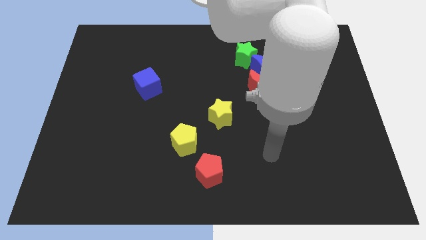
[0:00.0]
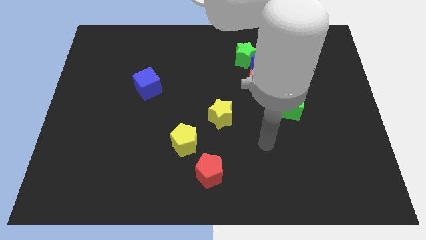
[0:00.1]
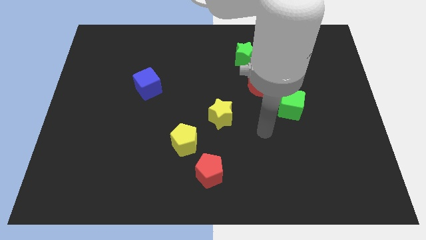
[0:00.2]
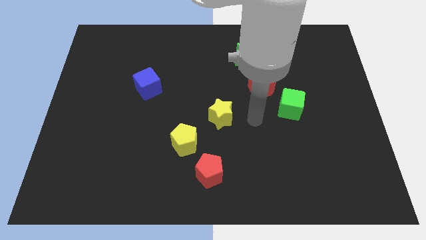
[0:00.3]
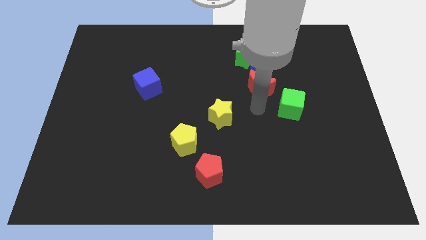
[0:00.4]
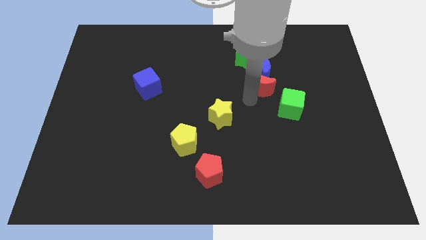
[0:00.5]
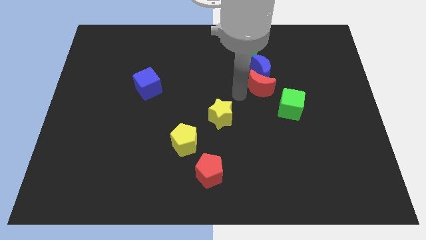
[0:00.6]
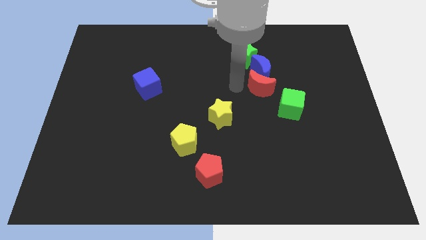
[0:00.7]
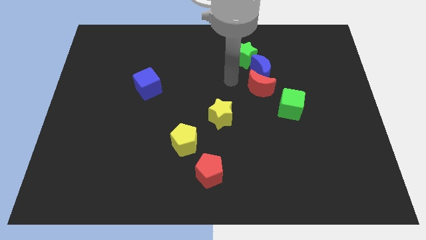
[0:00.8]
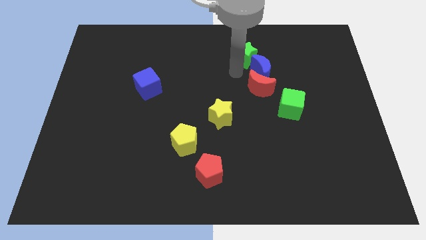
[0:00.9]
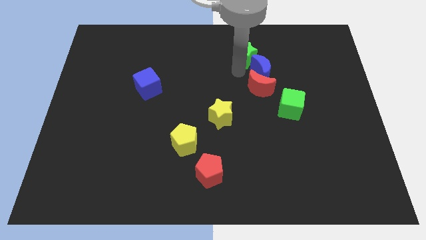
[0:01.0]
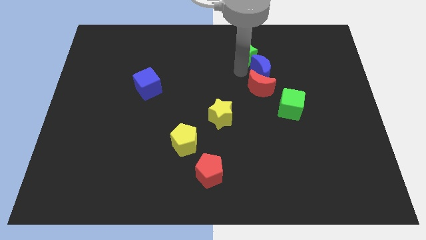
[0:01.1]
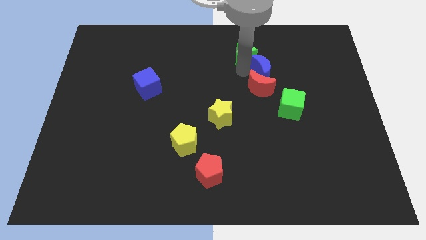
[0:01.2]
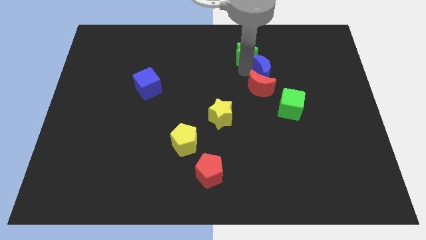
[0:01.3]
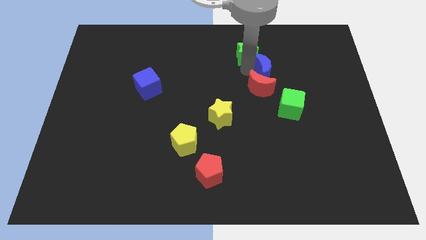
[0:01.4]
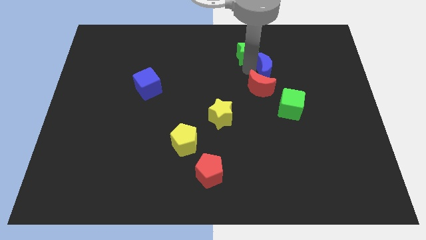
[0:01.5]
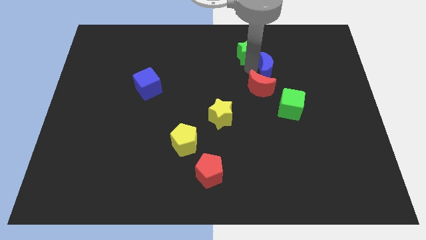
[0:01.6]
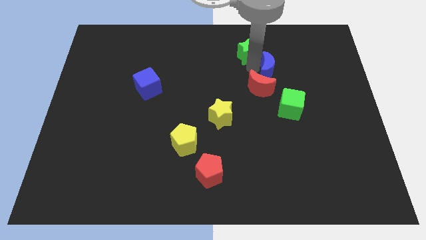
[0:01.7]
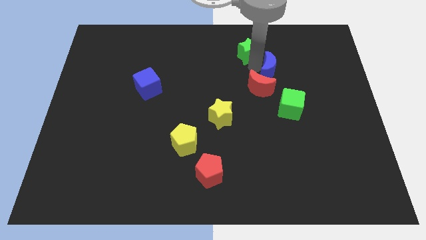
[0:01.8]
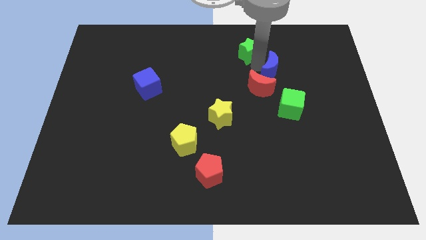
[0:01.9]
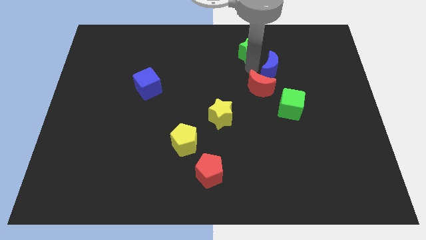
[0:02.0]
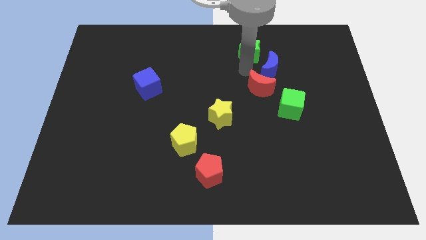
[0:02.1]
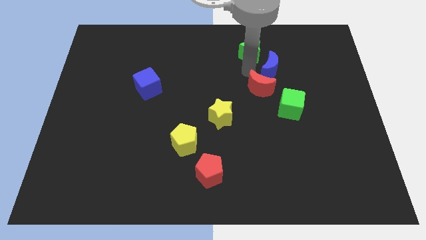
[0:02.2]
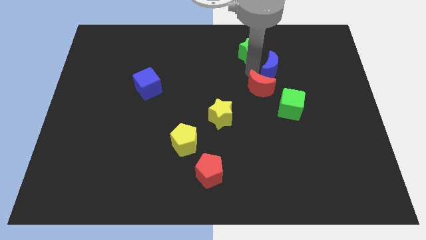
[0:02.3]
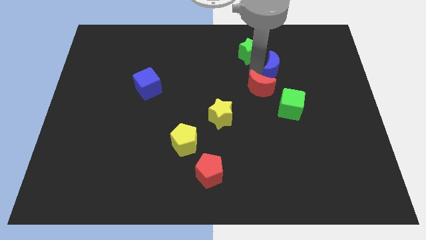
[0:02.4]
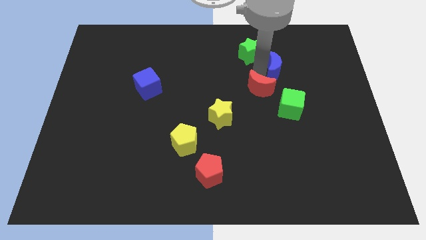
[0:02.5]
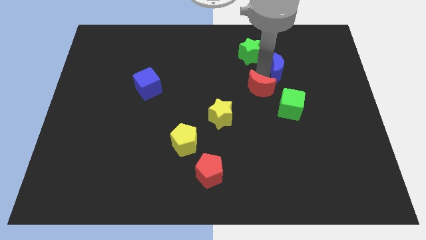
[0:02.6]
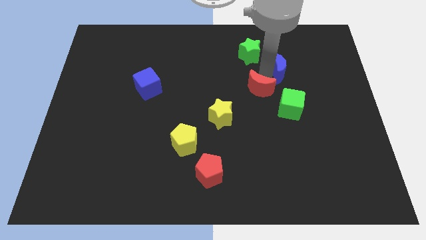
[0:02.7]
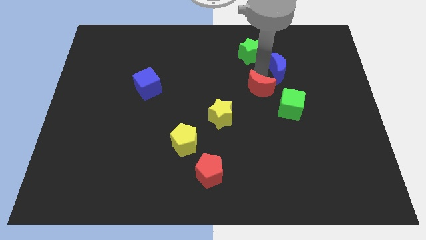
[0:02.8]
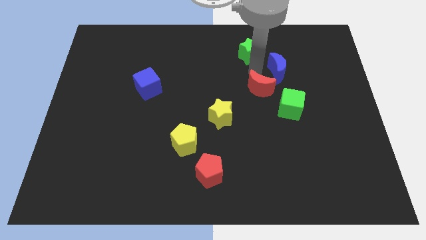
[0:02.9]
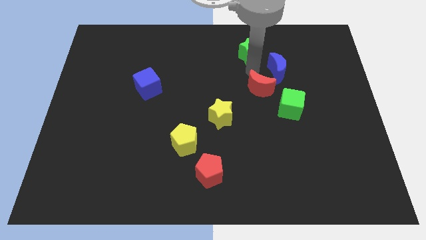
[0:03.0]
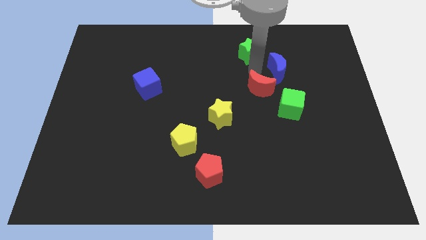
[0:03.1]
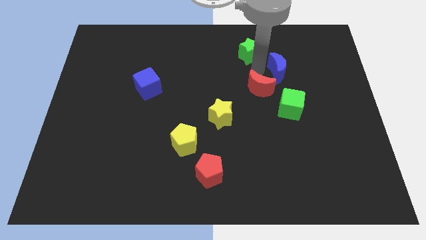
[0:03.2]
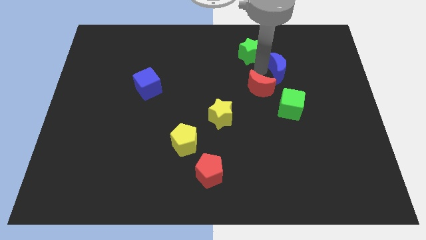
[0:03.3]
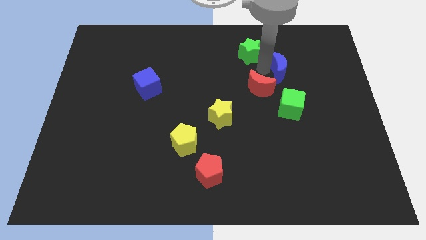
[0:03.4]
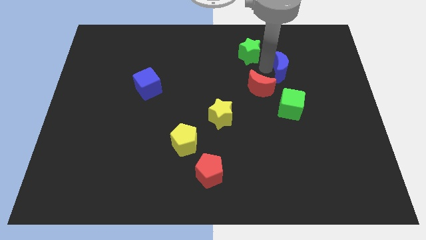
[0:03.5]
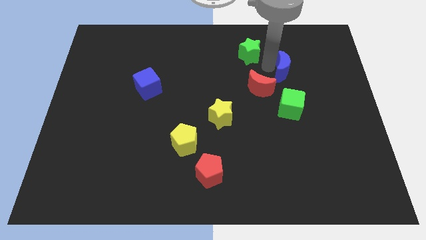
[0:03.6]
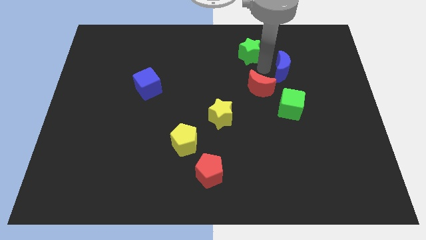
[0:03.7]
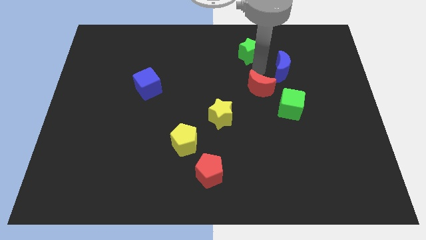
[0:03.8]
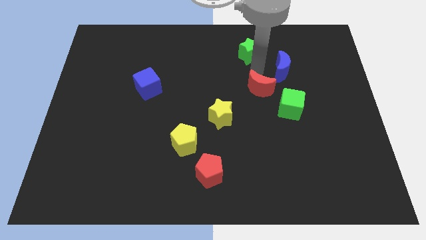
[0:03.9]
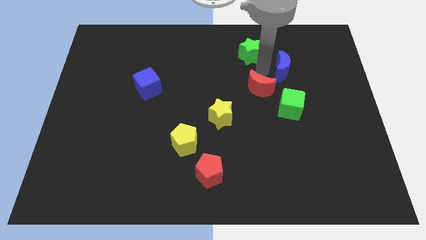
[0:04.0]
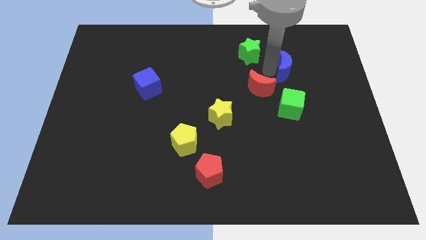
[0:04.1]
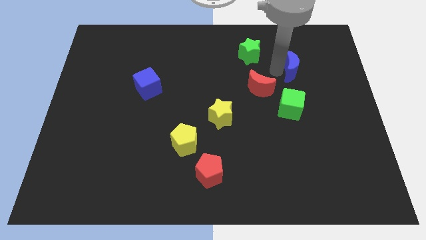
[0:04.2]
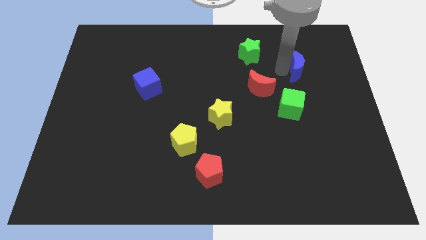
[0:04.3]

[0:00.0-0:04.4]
move the blue moon away from the red moon and green star

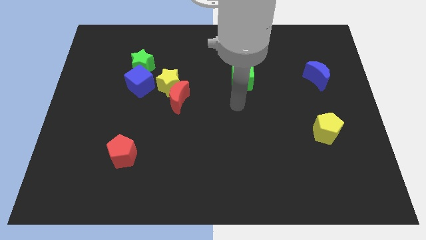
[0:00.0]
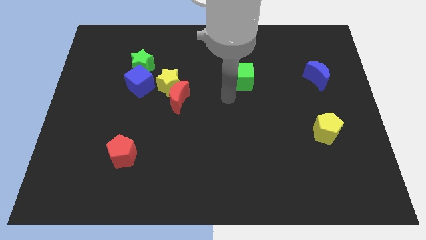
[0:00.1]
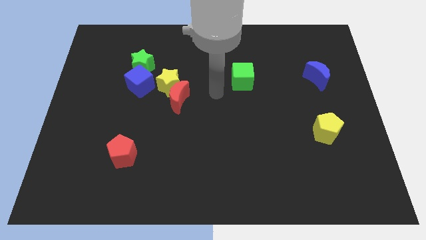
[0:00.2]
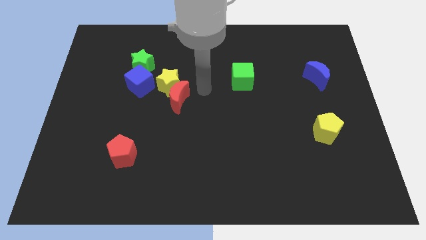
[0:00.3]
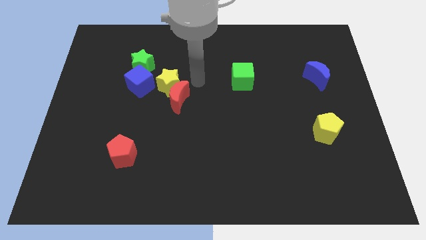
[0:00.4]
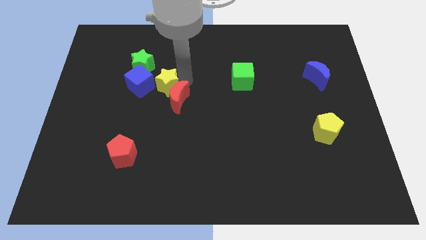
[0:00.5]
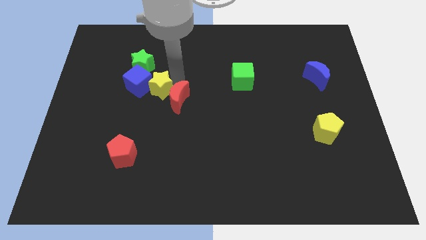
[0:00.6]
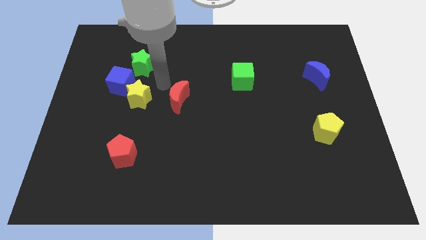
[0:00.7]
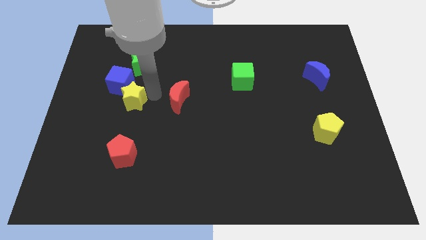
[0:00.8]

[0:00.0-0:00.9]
separate the red moon from the yellow star

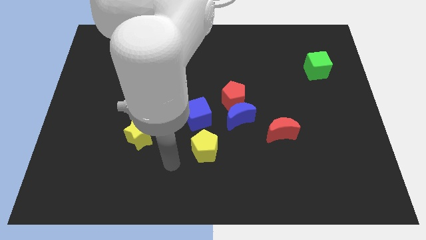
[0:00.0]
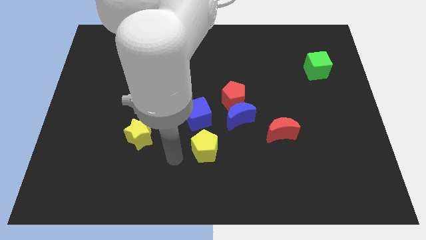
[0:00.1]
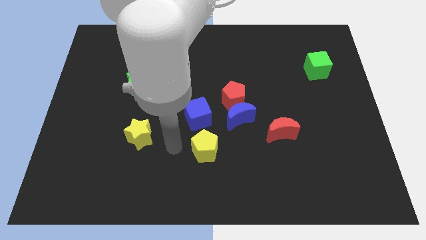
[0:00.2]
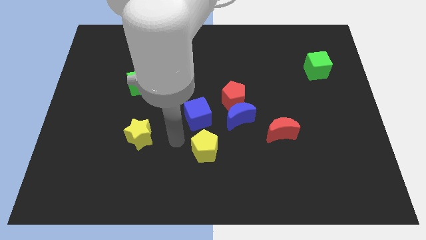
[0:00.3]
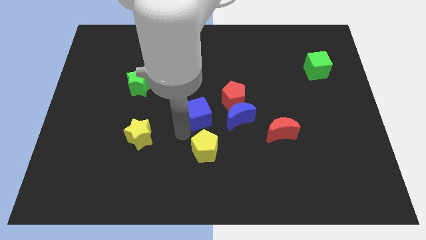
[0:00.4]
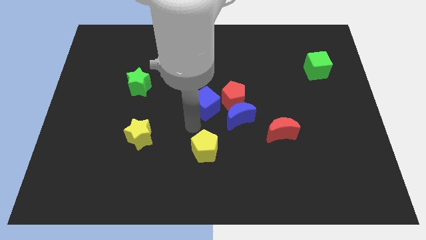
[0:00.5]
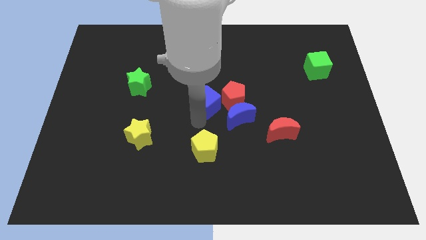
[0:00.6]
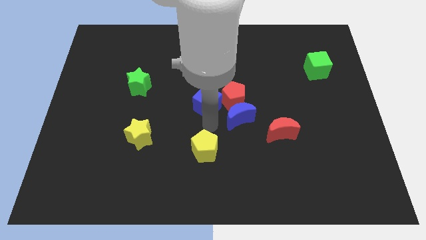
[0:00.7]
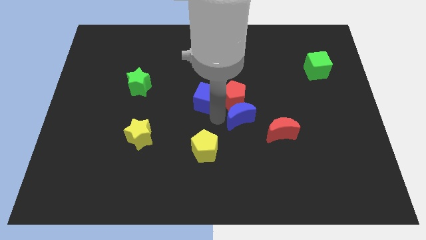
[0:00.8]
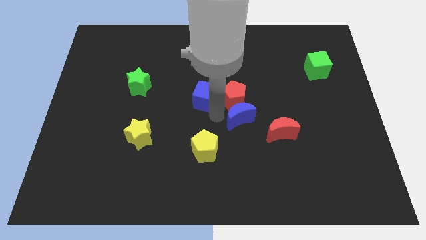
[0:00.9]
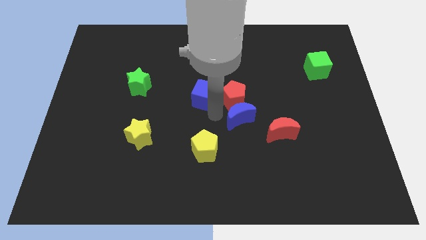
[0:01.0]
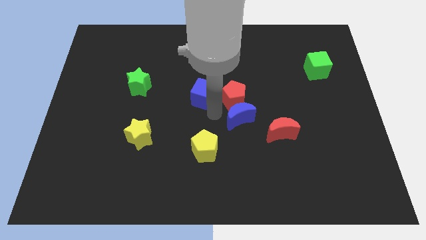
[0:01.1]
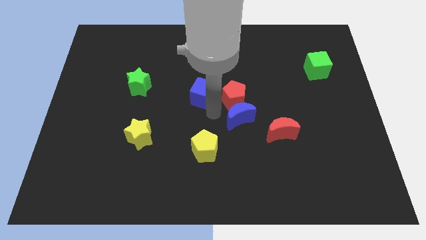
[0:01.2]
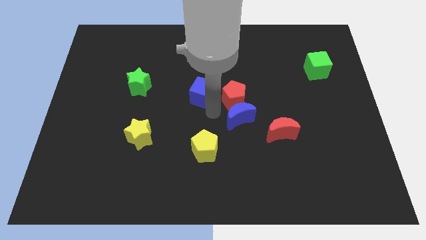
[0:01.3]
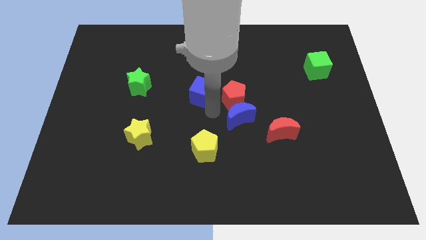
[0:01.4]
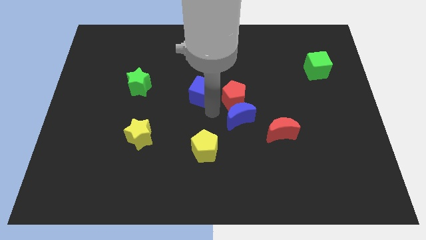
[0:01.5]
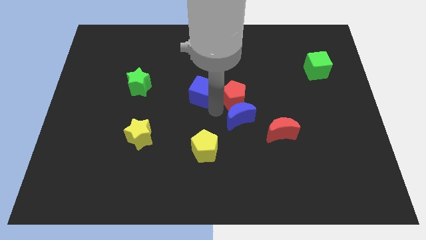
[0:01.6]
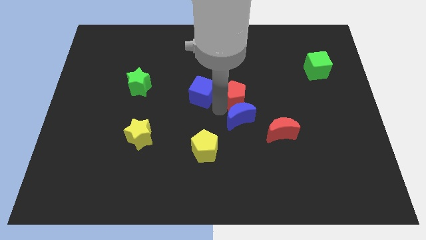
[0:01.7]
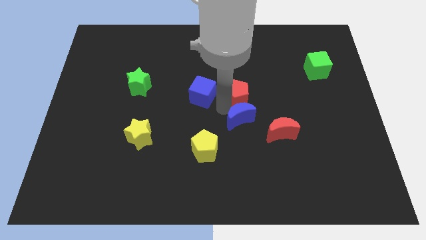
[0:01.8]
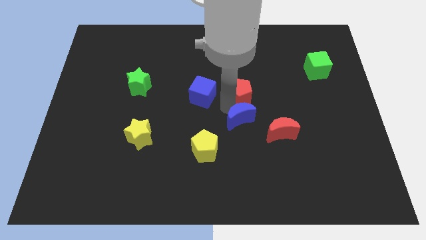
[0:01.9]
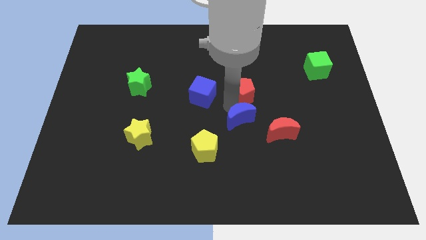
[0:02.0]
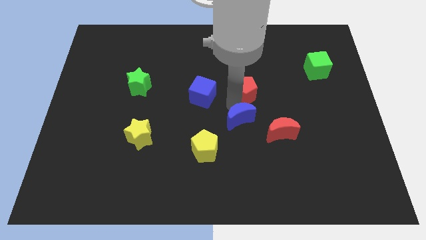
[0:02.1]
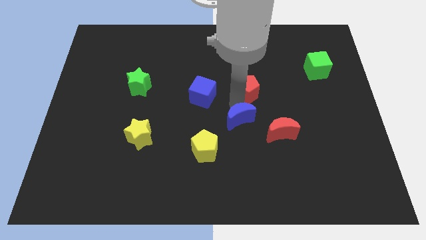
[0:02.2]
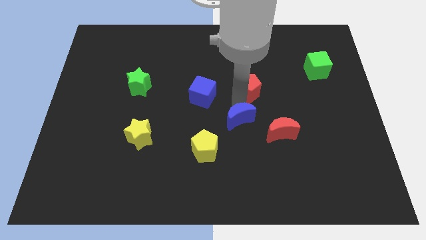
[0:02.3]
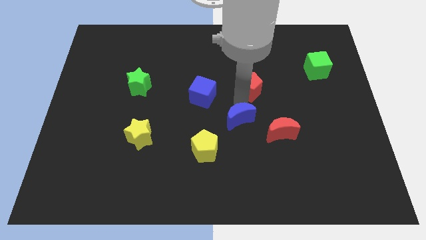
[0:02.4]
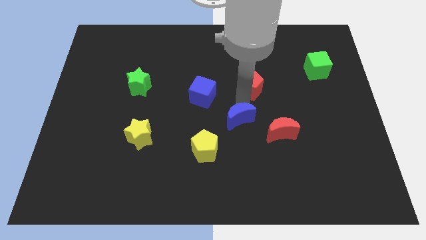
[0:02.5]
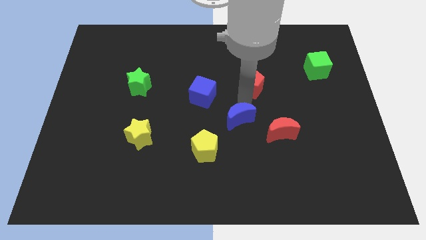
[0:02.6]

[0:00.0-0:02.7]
move the red pentagon away from the blue moon and blue cube

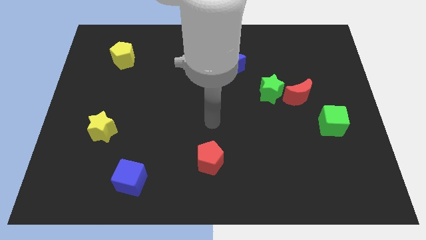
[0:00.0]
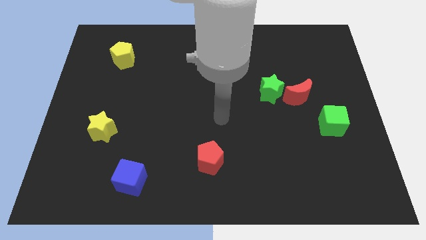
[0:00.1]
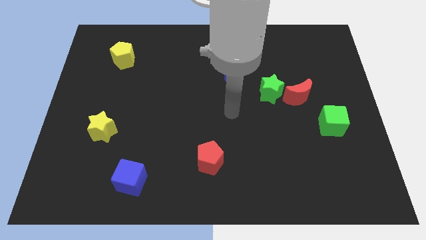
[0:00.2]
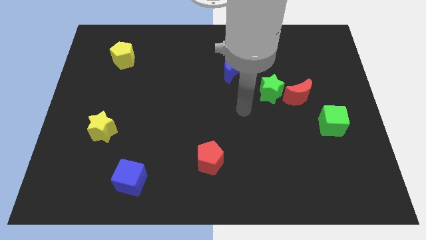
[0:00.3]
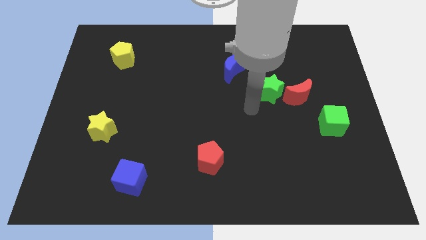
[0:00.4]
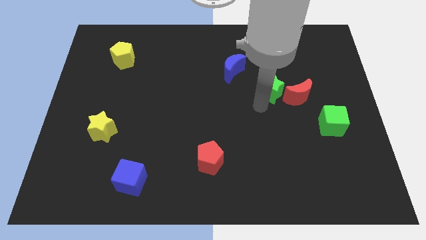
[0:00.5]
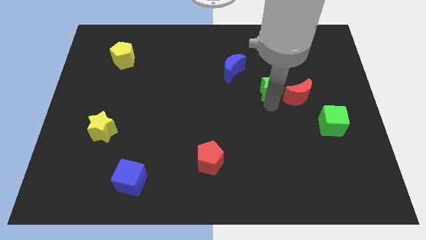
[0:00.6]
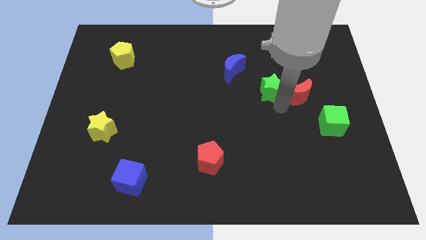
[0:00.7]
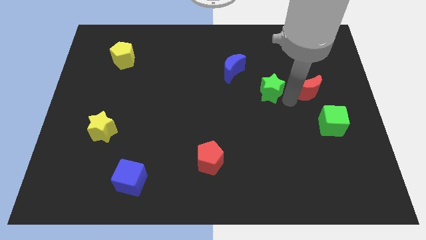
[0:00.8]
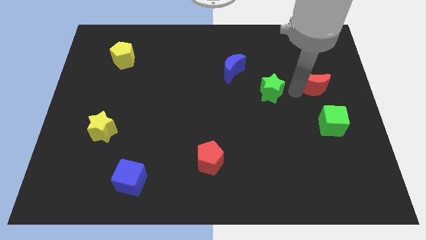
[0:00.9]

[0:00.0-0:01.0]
separate the green star from the red moon

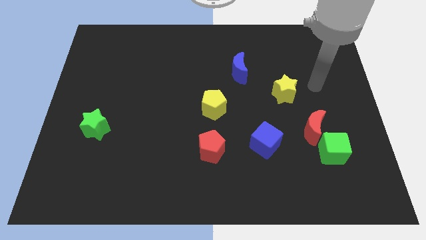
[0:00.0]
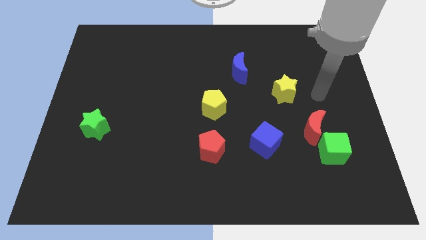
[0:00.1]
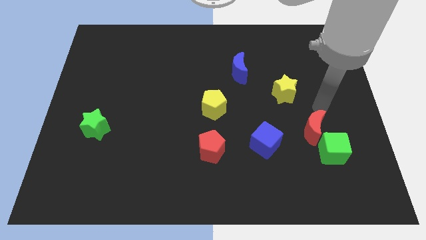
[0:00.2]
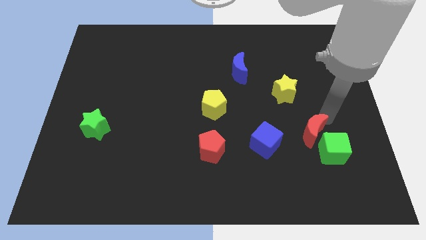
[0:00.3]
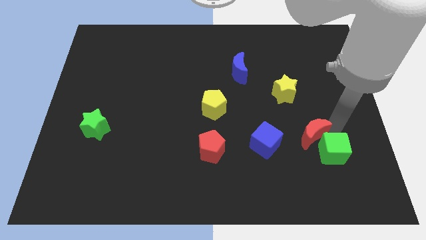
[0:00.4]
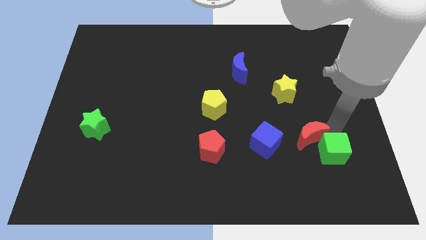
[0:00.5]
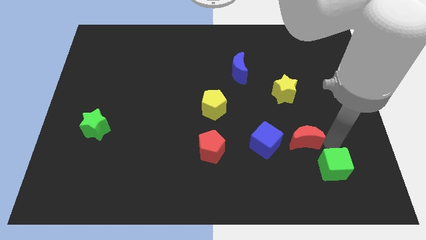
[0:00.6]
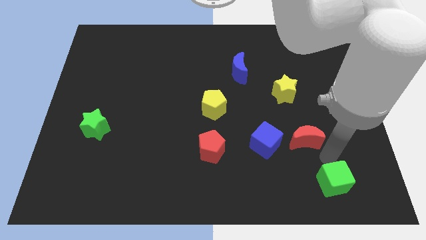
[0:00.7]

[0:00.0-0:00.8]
move the red moon away from the green cube
